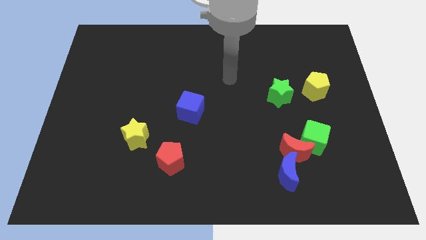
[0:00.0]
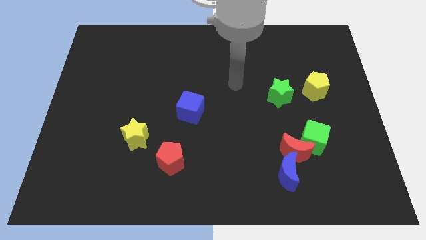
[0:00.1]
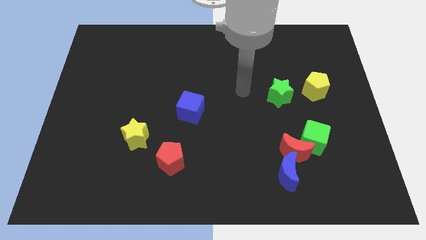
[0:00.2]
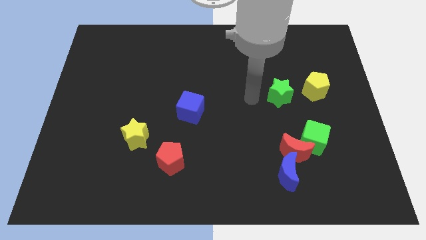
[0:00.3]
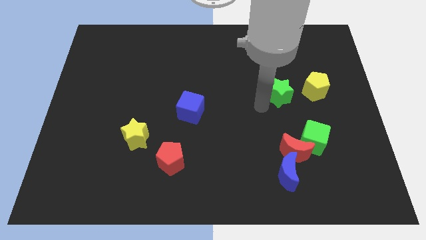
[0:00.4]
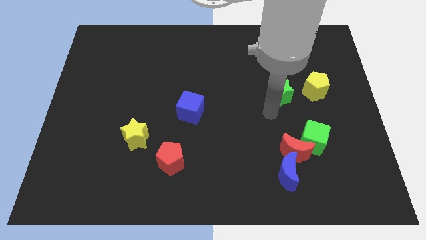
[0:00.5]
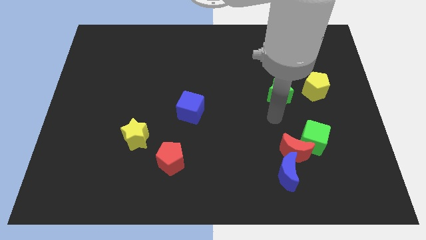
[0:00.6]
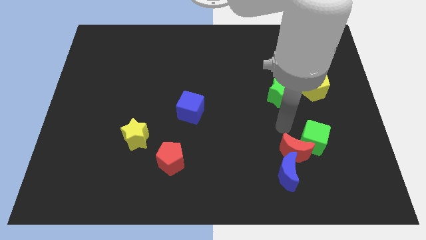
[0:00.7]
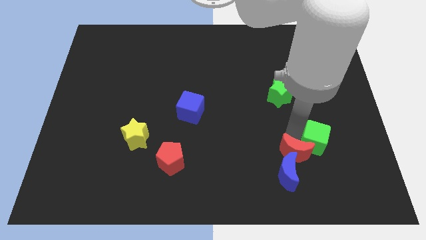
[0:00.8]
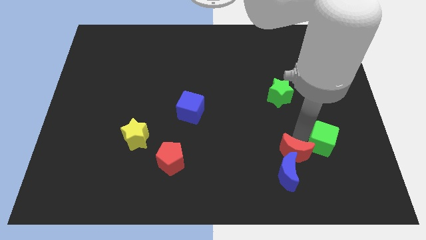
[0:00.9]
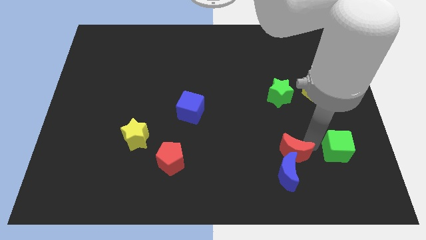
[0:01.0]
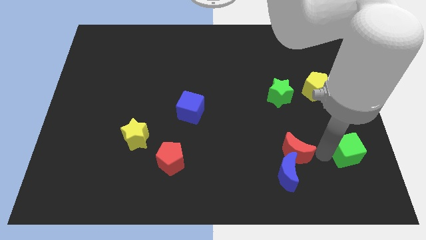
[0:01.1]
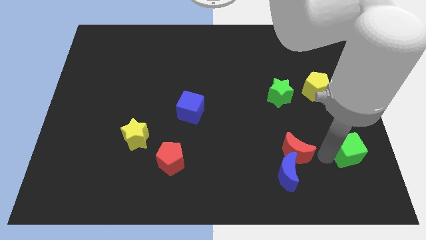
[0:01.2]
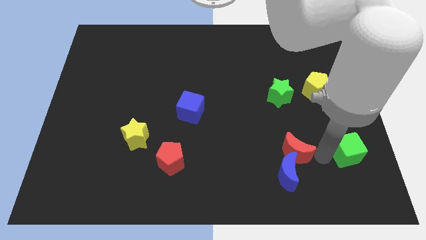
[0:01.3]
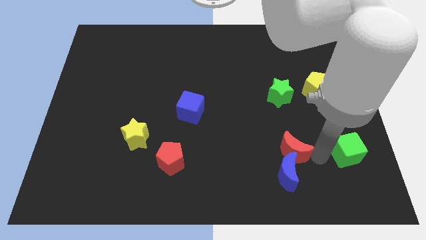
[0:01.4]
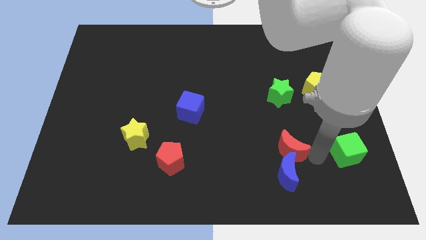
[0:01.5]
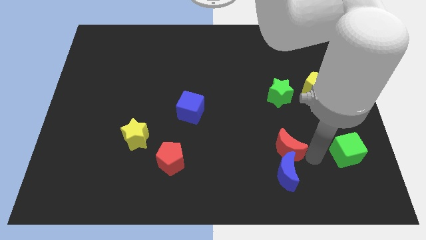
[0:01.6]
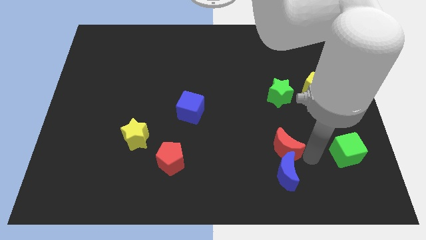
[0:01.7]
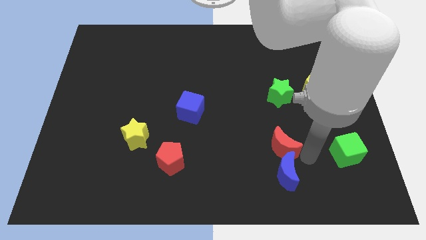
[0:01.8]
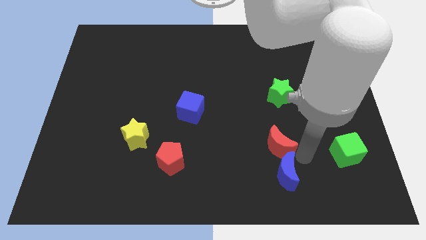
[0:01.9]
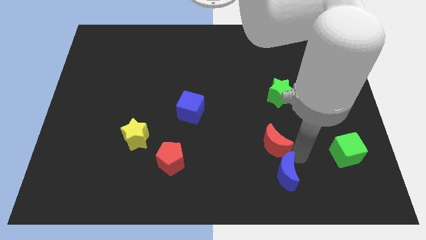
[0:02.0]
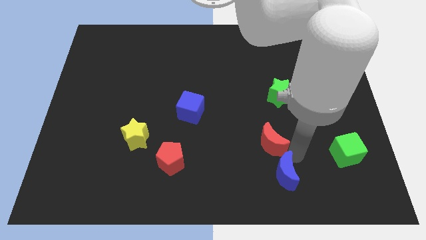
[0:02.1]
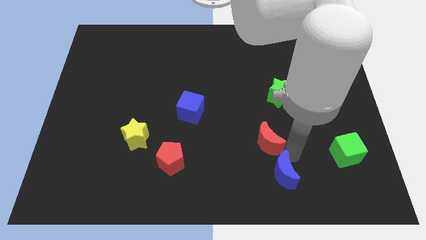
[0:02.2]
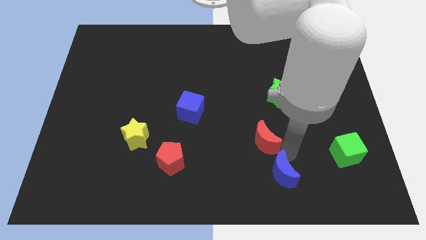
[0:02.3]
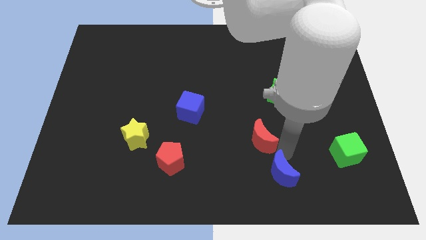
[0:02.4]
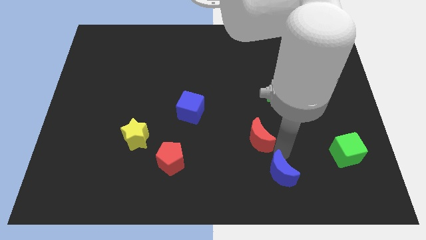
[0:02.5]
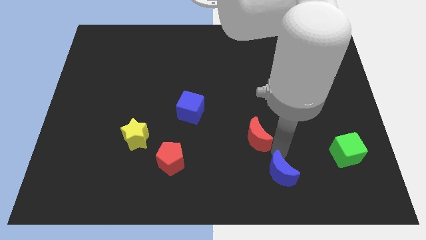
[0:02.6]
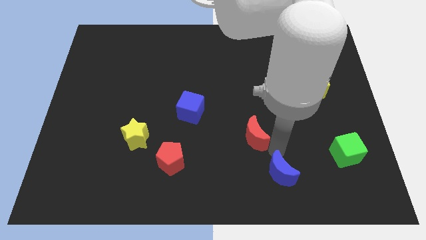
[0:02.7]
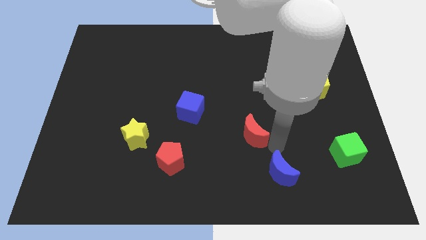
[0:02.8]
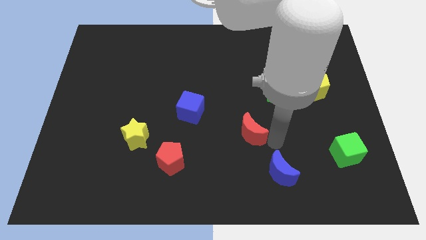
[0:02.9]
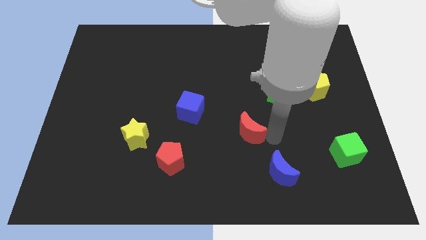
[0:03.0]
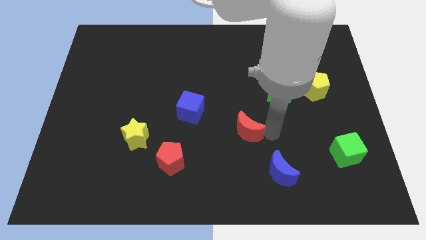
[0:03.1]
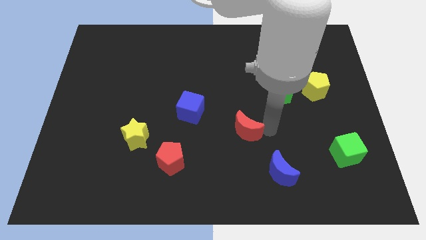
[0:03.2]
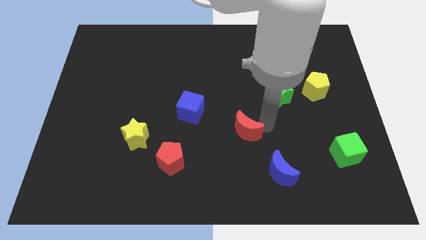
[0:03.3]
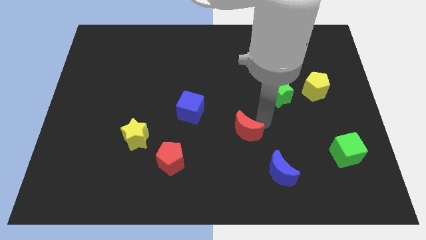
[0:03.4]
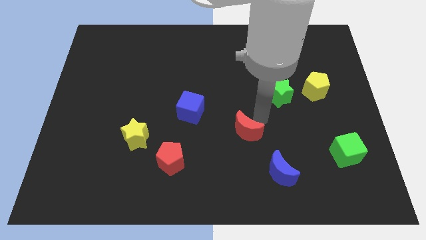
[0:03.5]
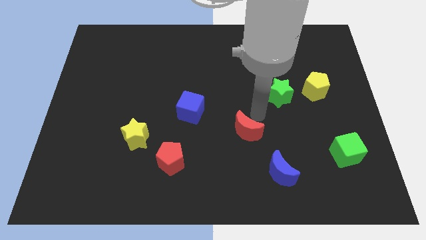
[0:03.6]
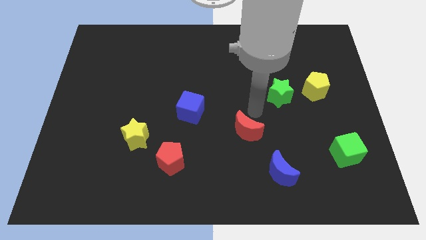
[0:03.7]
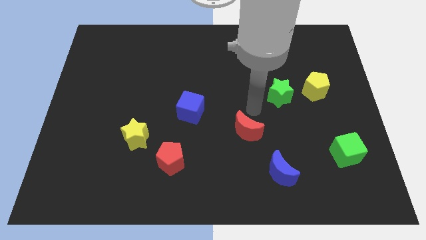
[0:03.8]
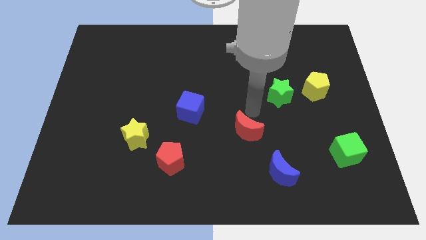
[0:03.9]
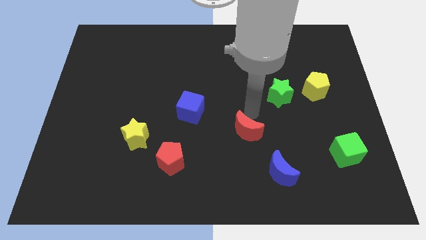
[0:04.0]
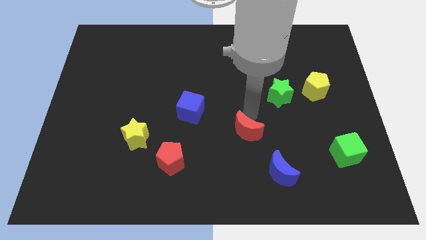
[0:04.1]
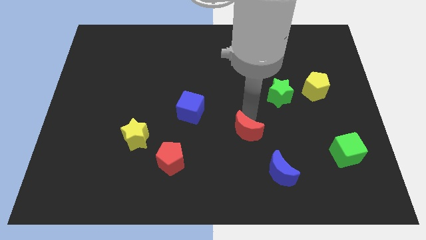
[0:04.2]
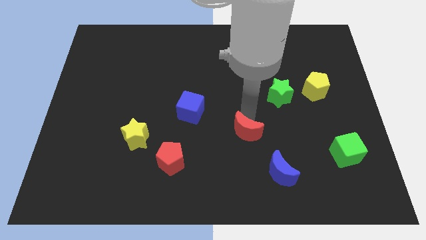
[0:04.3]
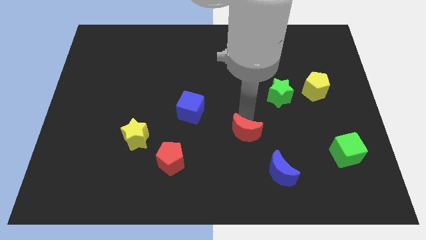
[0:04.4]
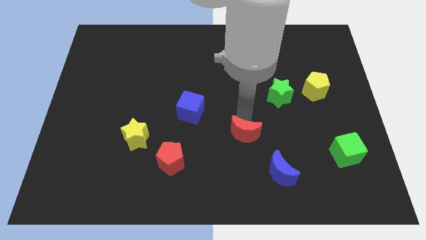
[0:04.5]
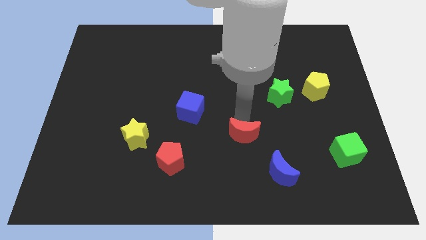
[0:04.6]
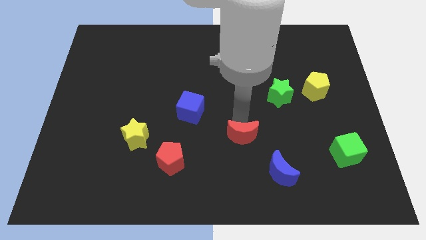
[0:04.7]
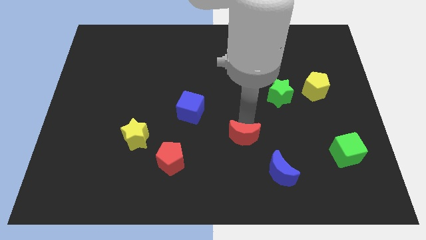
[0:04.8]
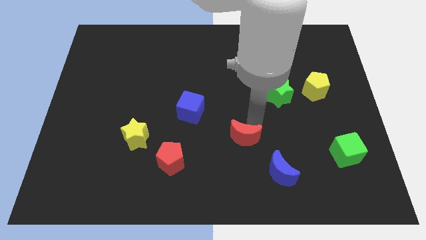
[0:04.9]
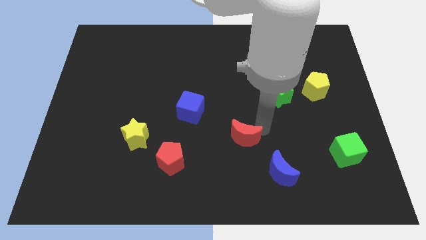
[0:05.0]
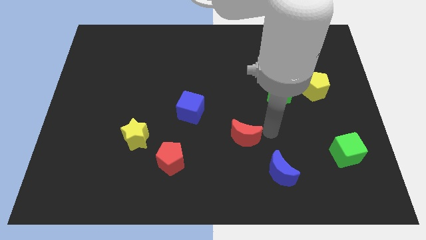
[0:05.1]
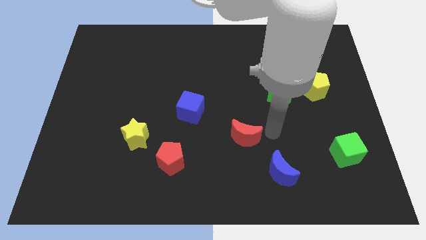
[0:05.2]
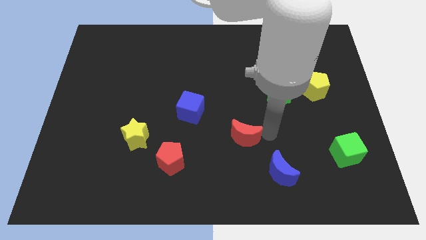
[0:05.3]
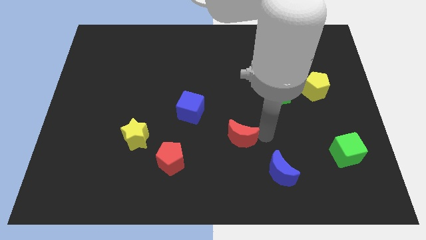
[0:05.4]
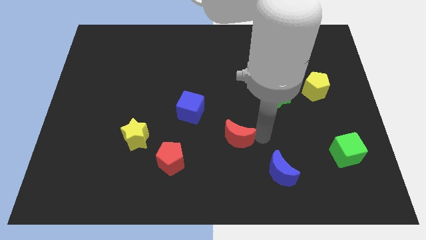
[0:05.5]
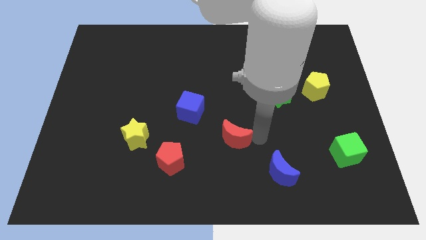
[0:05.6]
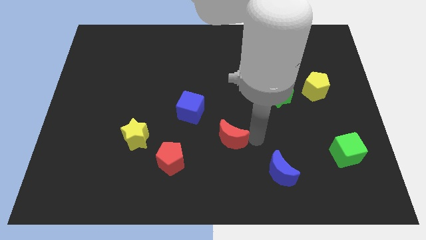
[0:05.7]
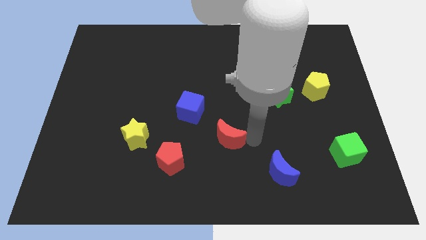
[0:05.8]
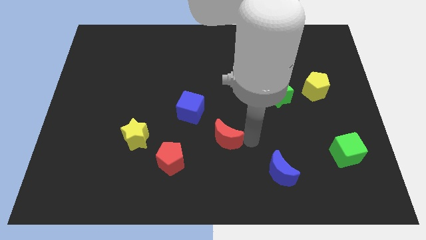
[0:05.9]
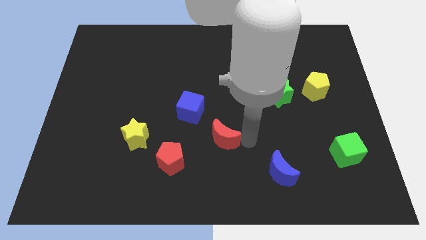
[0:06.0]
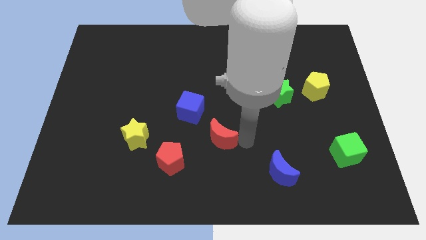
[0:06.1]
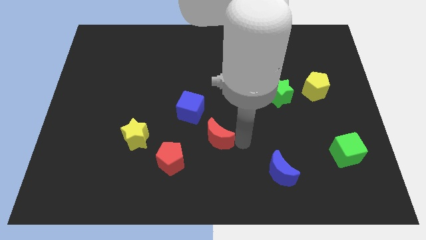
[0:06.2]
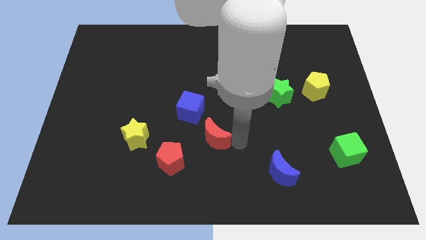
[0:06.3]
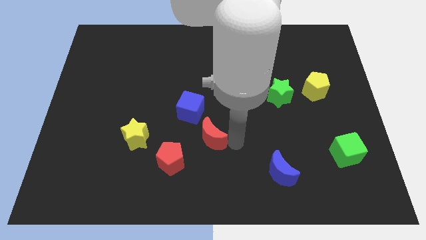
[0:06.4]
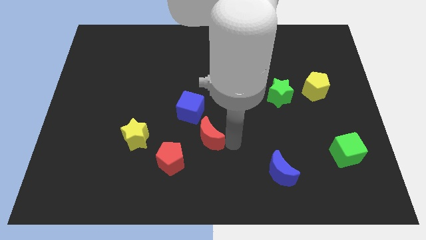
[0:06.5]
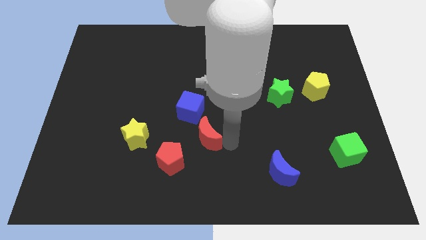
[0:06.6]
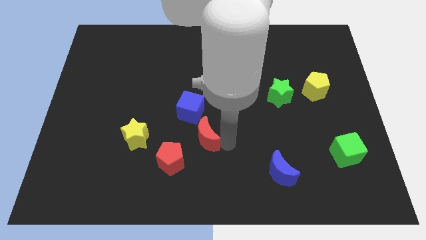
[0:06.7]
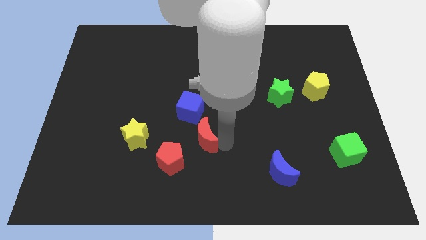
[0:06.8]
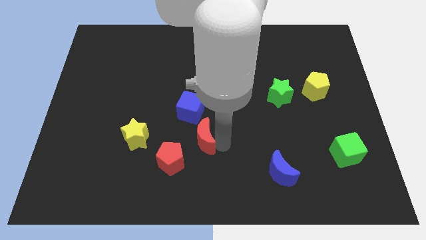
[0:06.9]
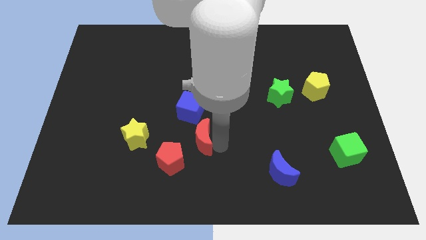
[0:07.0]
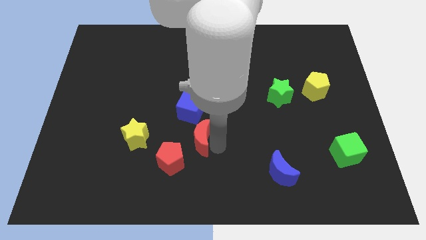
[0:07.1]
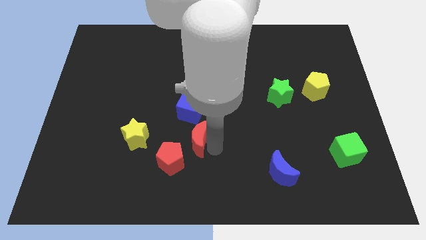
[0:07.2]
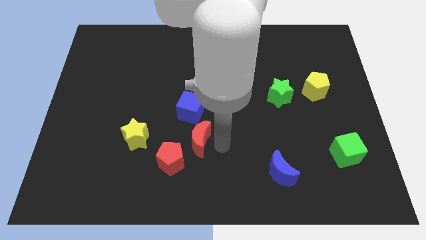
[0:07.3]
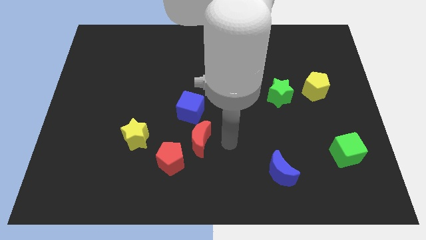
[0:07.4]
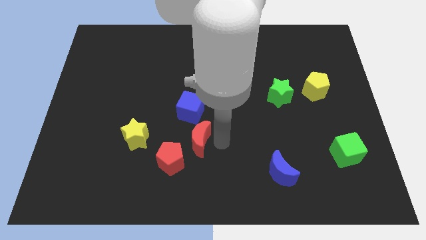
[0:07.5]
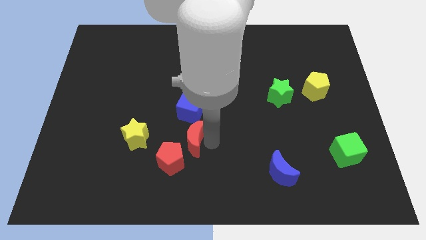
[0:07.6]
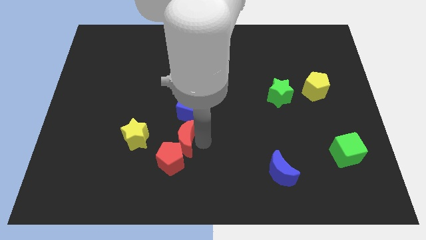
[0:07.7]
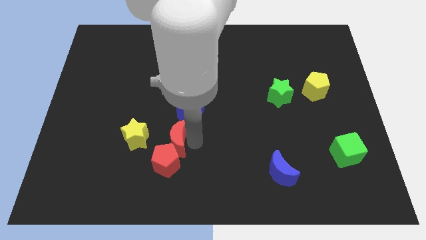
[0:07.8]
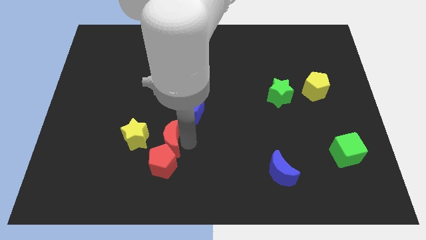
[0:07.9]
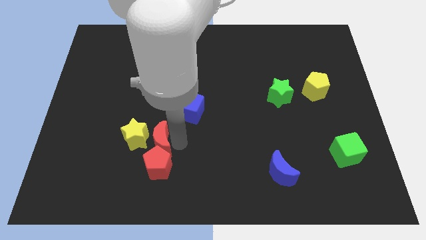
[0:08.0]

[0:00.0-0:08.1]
put the red moon to the yellow star
